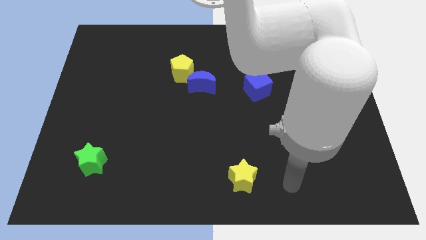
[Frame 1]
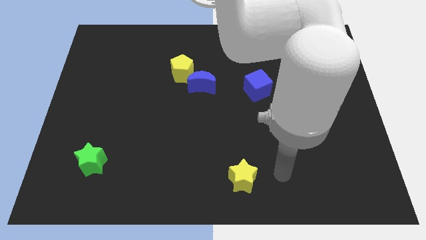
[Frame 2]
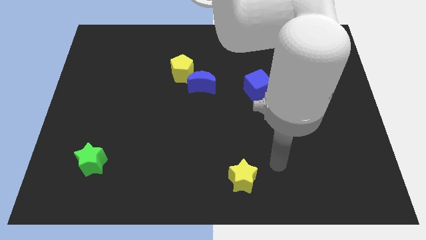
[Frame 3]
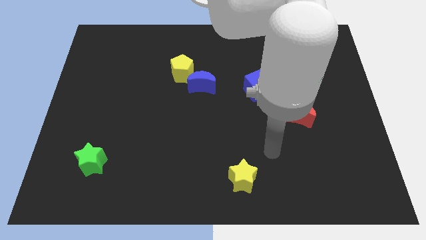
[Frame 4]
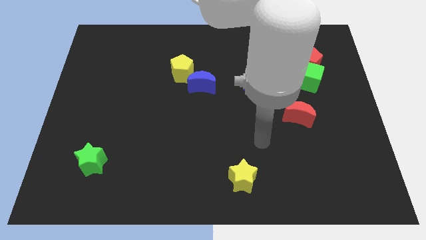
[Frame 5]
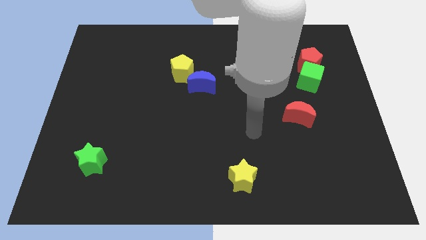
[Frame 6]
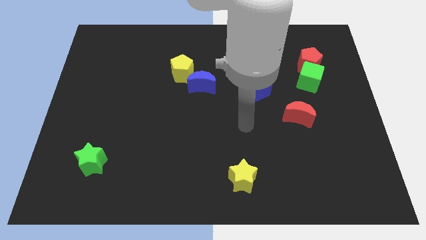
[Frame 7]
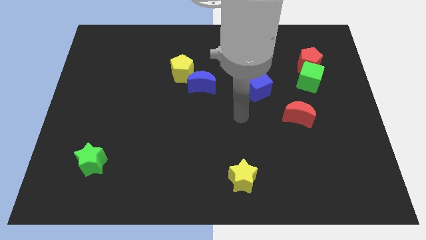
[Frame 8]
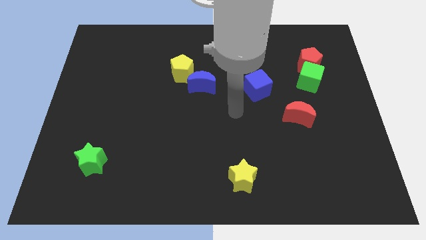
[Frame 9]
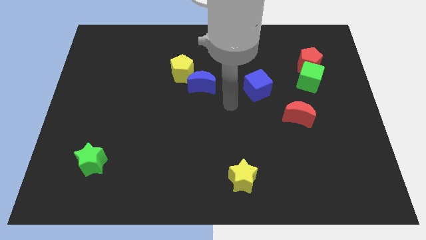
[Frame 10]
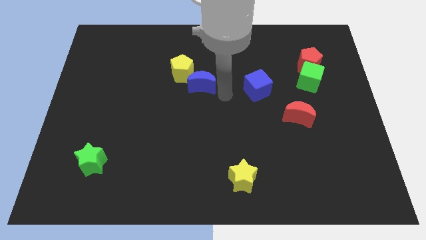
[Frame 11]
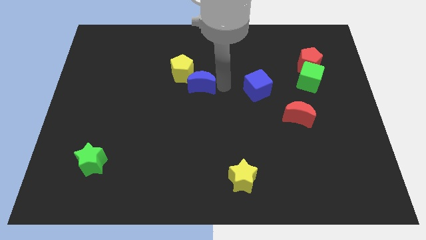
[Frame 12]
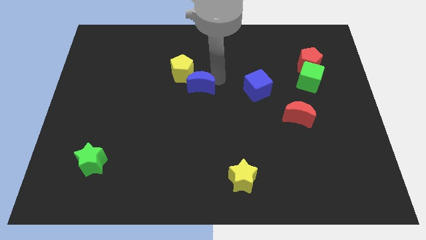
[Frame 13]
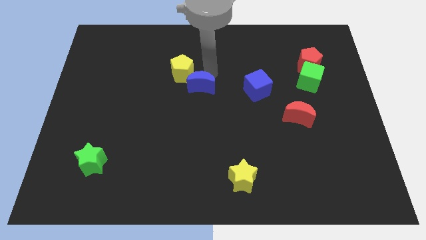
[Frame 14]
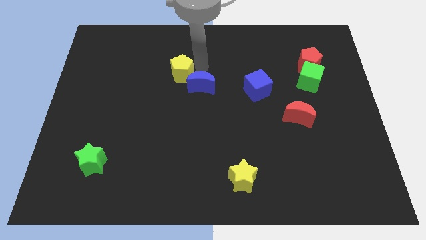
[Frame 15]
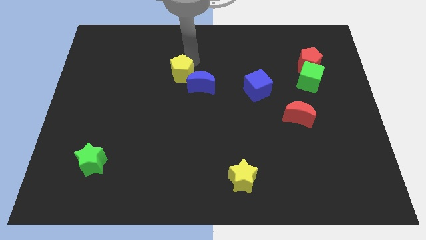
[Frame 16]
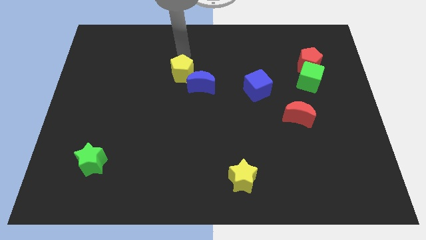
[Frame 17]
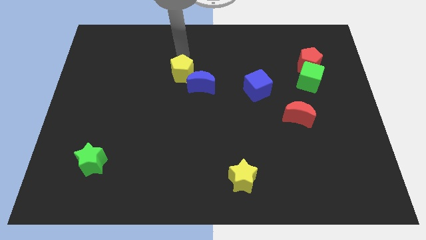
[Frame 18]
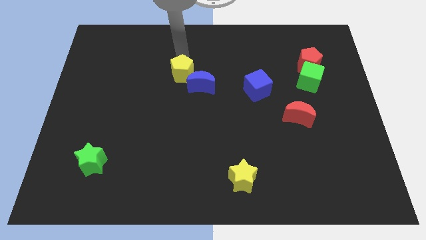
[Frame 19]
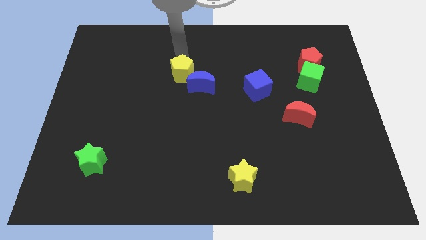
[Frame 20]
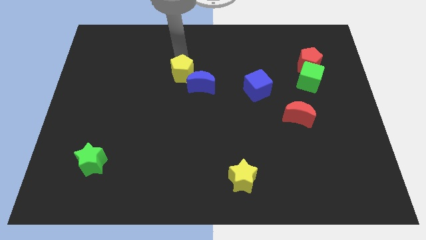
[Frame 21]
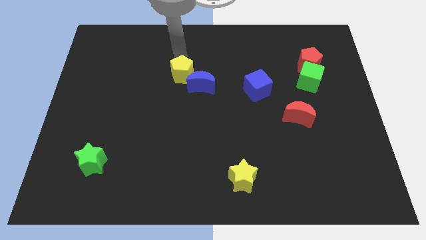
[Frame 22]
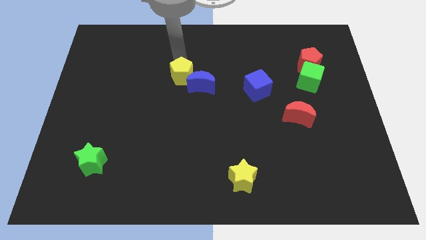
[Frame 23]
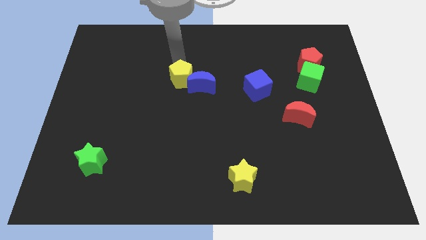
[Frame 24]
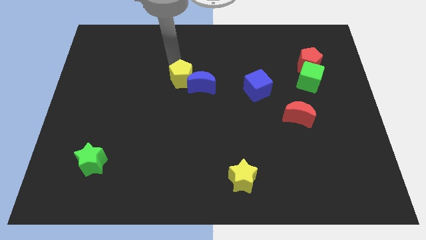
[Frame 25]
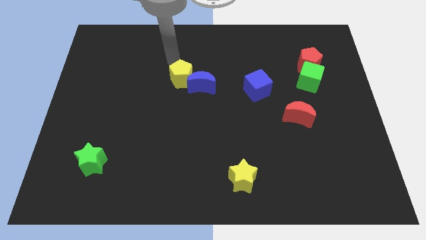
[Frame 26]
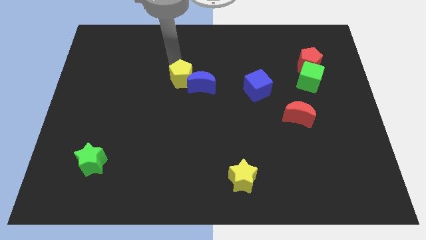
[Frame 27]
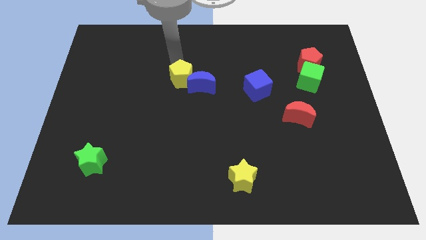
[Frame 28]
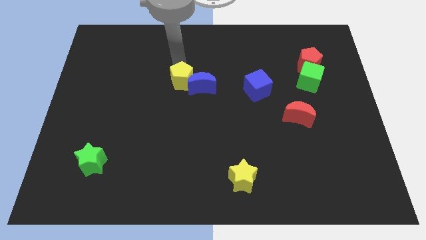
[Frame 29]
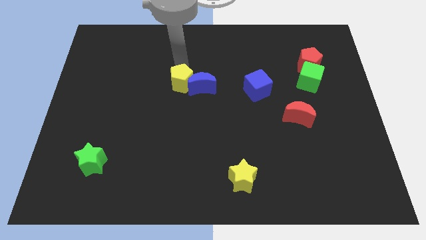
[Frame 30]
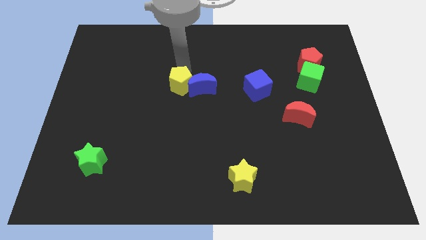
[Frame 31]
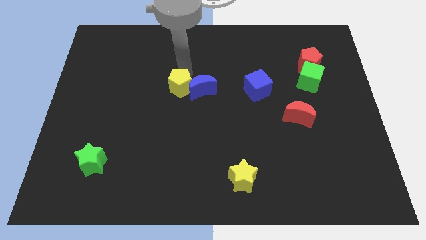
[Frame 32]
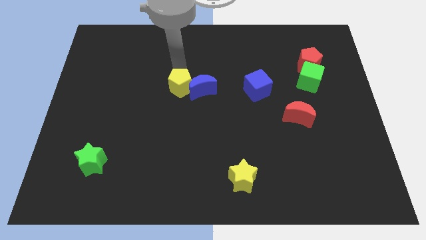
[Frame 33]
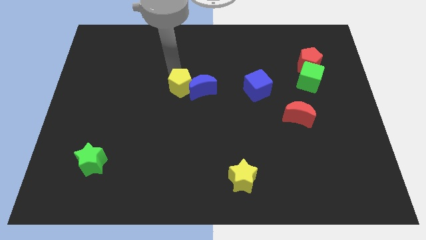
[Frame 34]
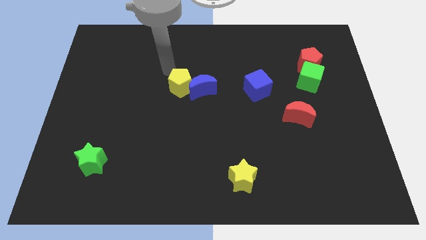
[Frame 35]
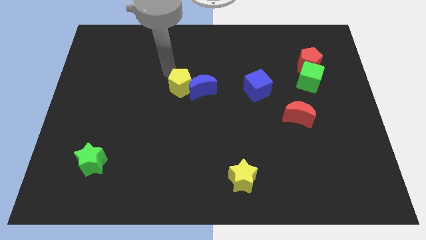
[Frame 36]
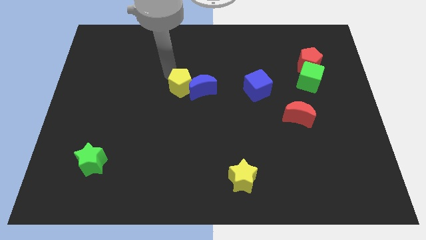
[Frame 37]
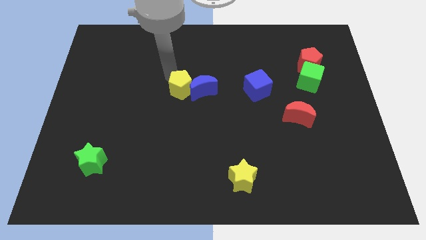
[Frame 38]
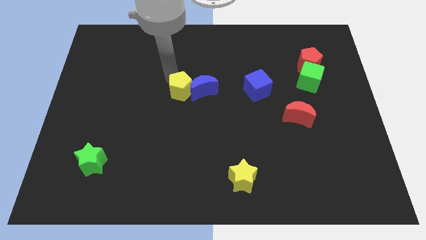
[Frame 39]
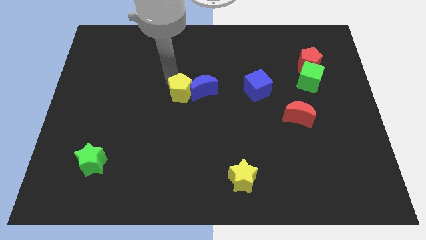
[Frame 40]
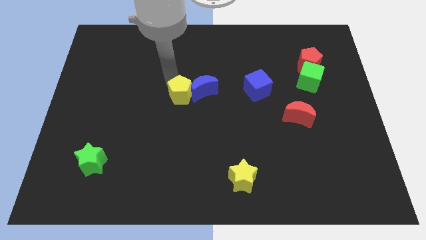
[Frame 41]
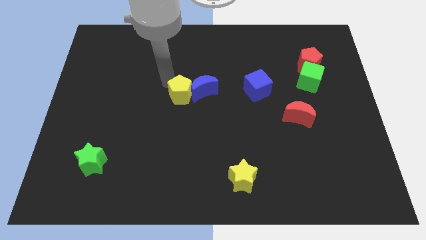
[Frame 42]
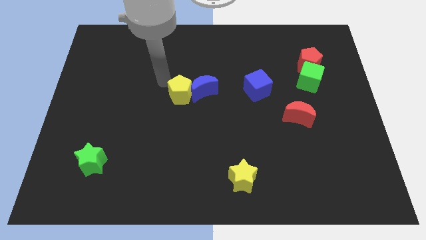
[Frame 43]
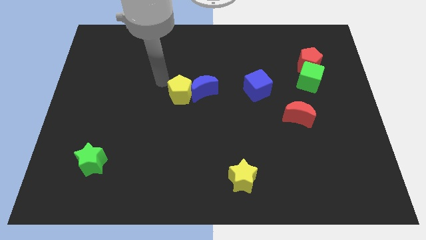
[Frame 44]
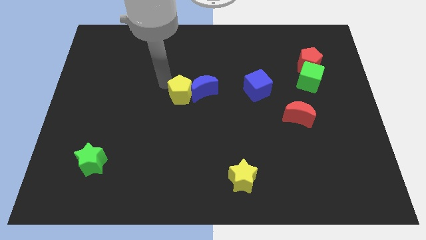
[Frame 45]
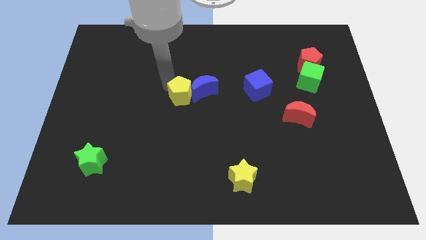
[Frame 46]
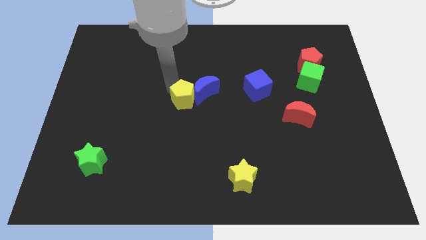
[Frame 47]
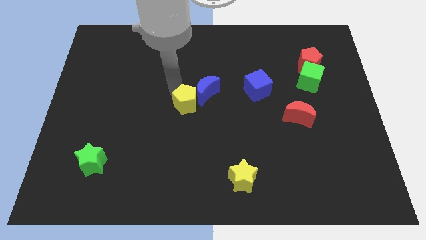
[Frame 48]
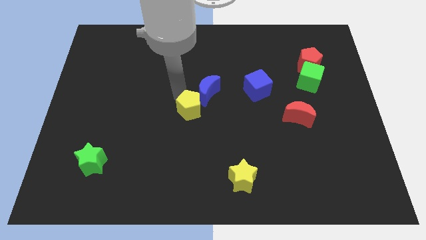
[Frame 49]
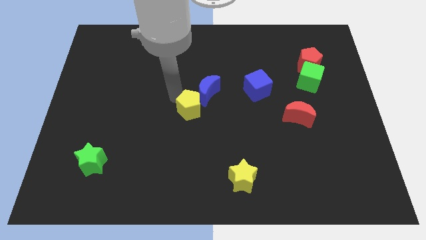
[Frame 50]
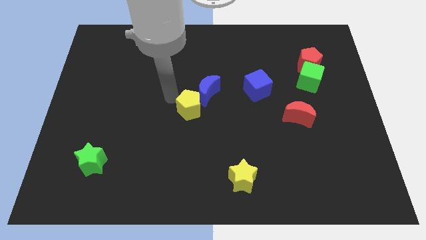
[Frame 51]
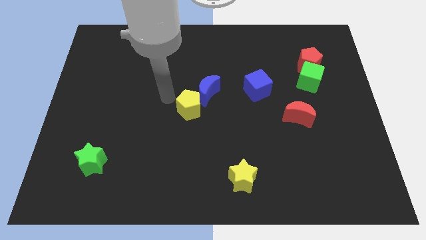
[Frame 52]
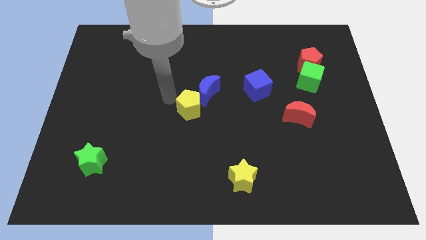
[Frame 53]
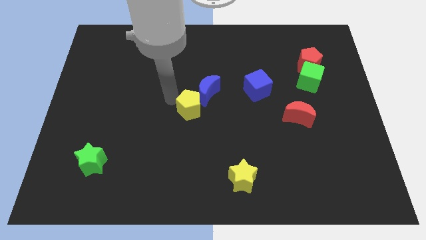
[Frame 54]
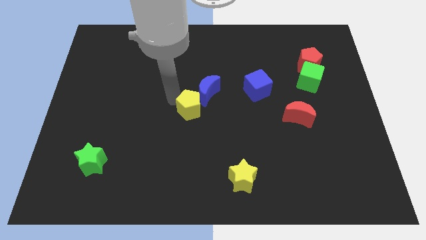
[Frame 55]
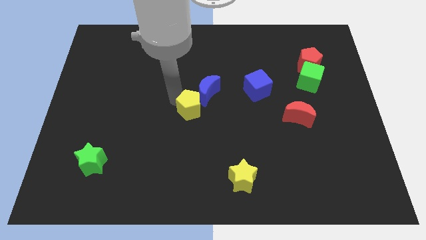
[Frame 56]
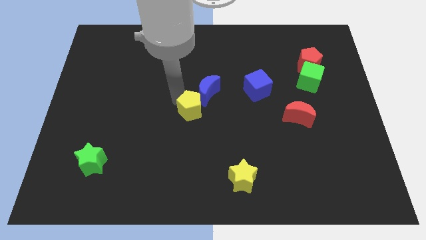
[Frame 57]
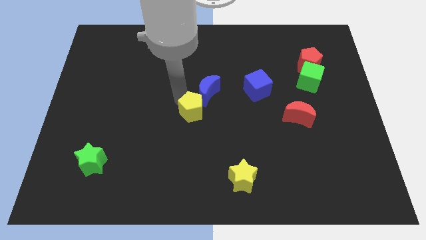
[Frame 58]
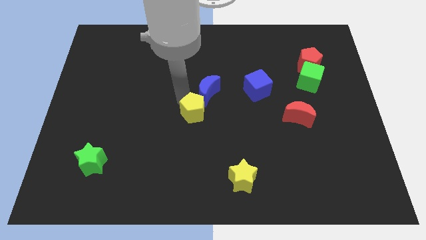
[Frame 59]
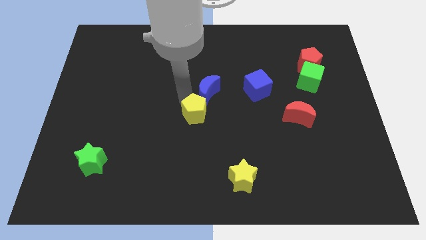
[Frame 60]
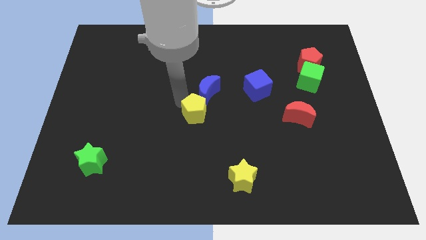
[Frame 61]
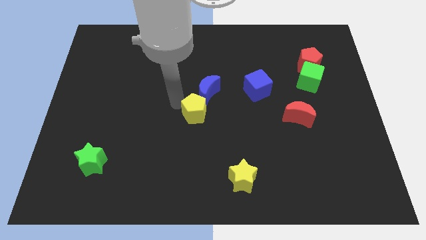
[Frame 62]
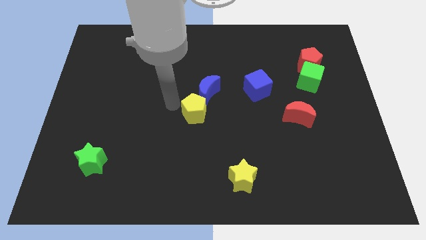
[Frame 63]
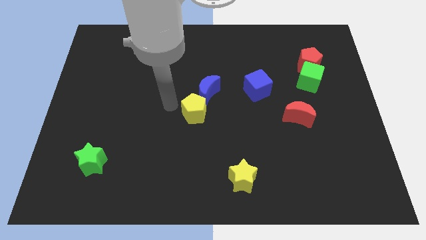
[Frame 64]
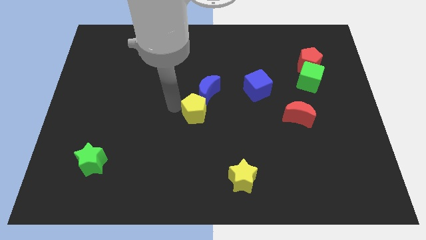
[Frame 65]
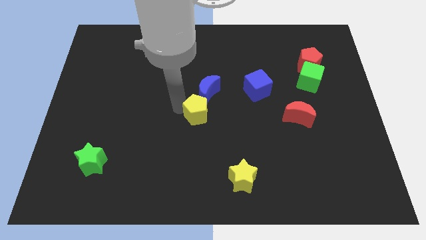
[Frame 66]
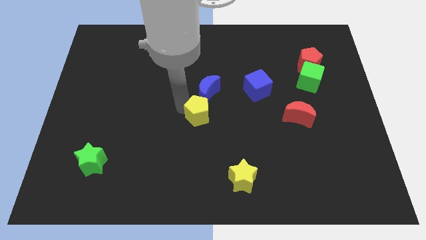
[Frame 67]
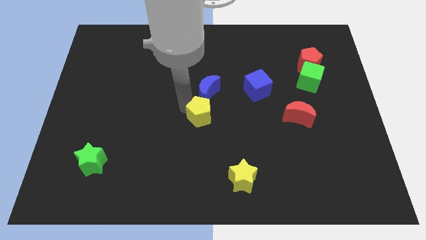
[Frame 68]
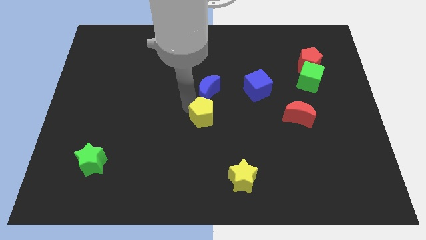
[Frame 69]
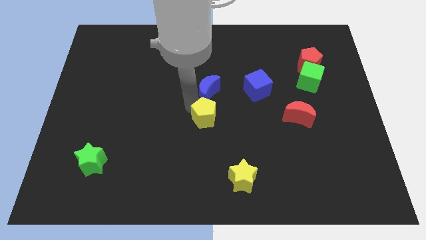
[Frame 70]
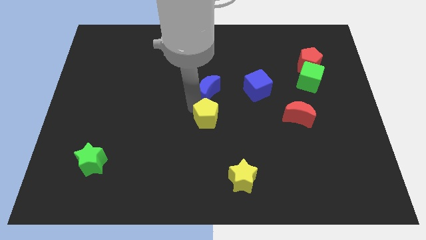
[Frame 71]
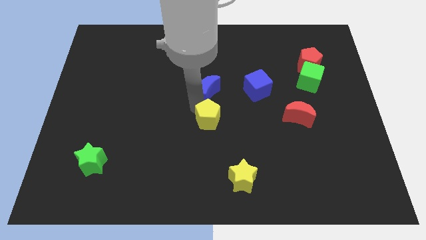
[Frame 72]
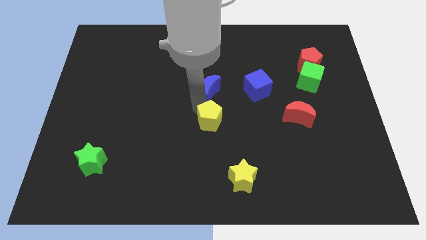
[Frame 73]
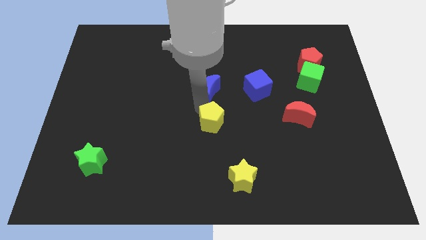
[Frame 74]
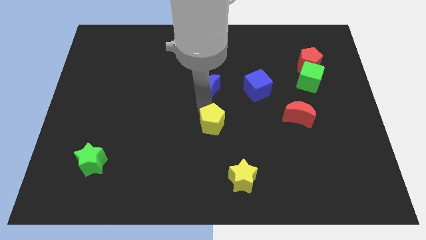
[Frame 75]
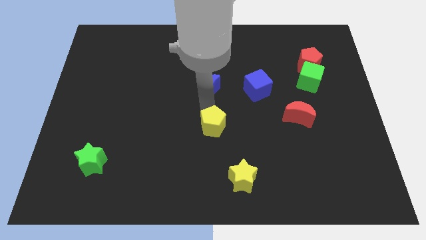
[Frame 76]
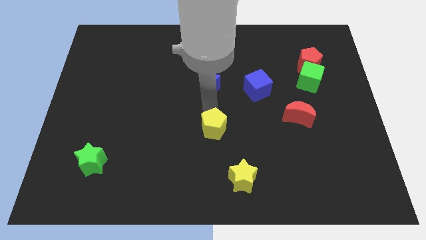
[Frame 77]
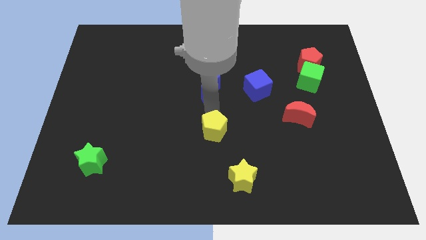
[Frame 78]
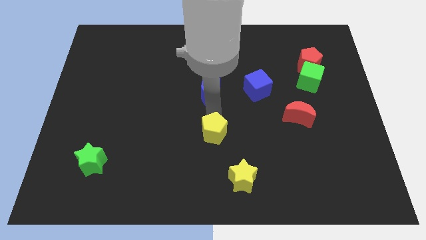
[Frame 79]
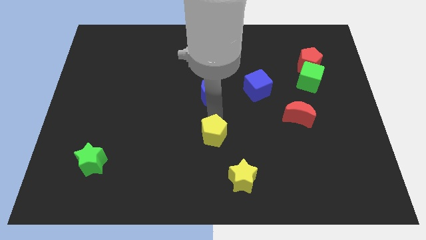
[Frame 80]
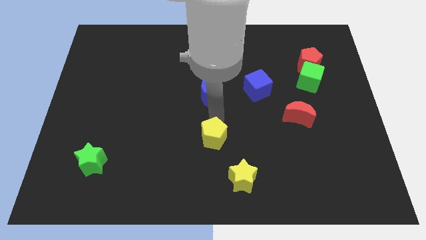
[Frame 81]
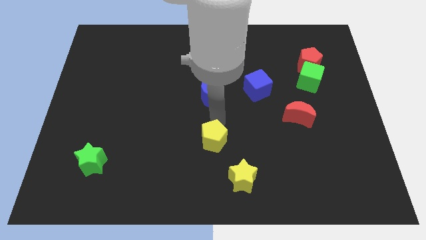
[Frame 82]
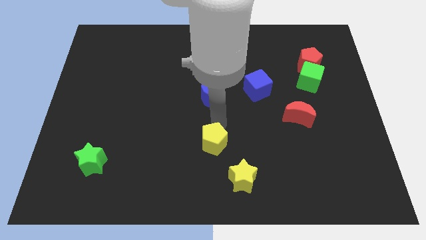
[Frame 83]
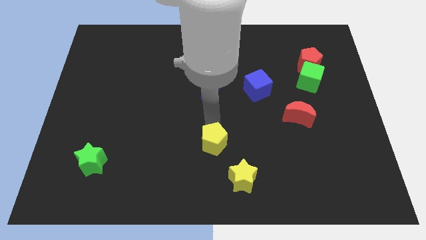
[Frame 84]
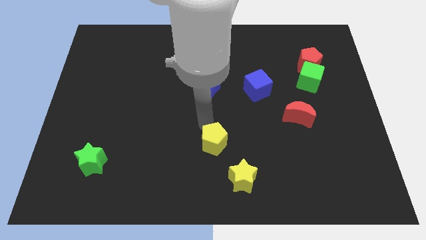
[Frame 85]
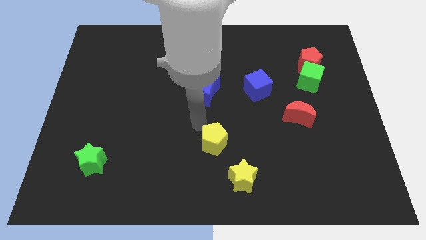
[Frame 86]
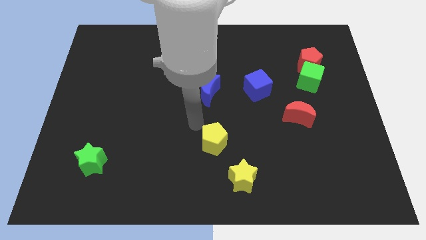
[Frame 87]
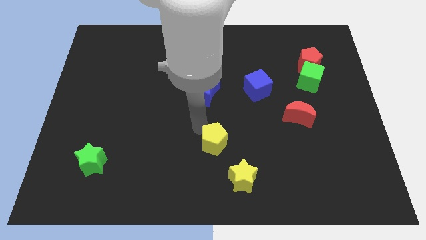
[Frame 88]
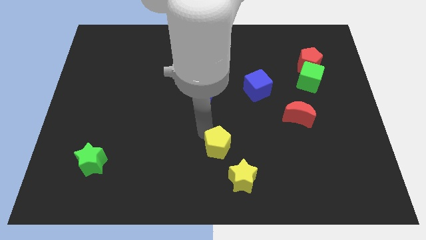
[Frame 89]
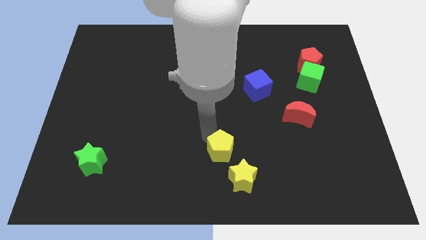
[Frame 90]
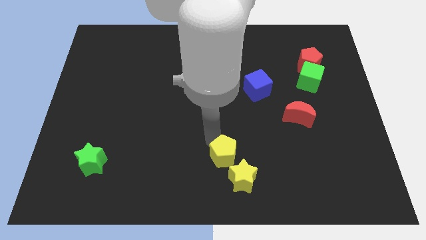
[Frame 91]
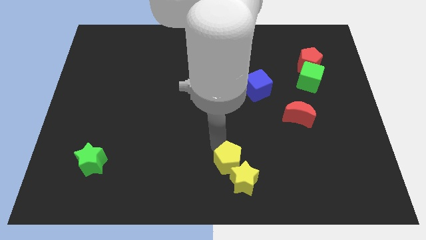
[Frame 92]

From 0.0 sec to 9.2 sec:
slide the yellow pentagon to the yellow star
